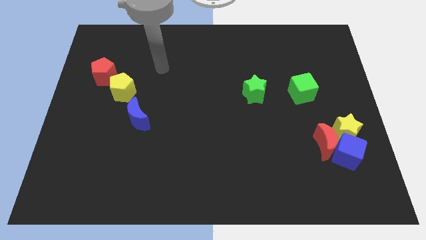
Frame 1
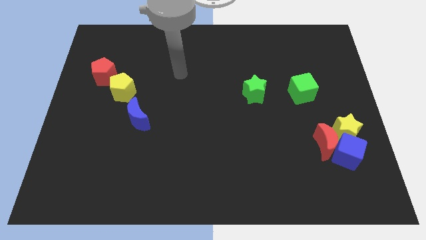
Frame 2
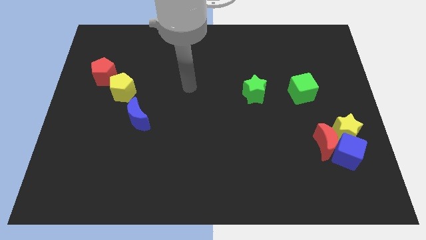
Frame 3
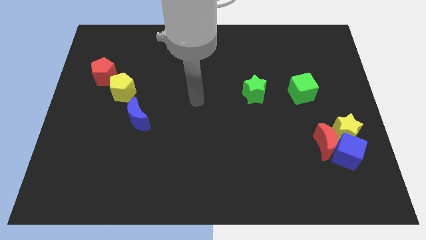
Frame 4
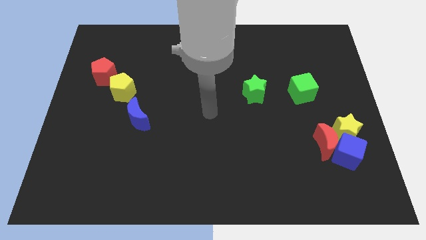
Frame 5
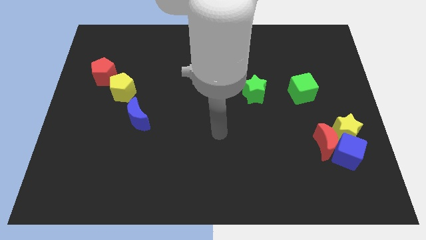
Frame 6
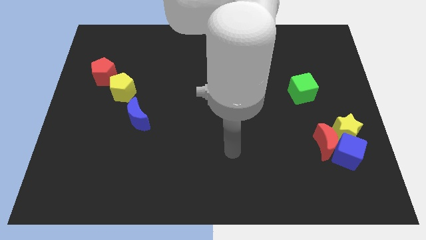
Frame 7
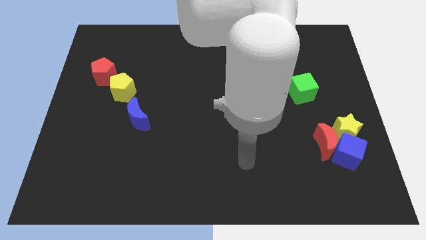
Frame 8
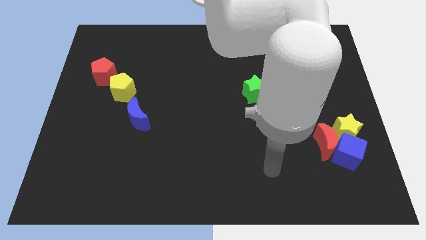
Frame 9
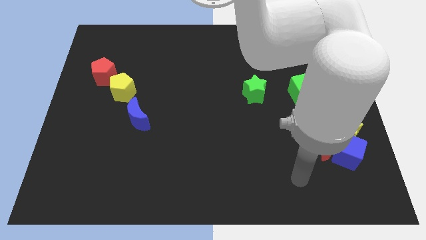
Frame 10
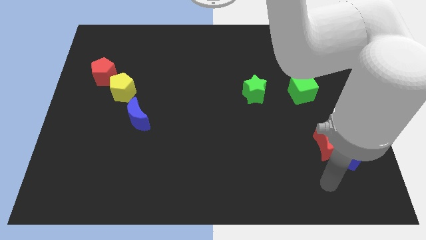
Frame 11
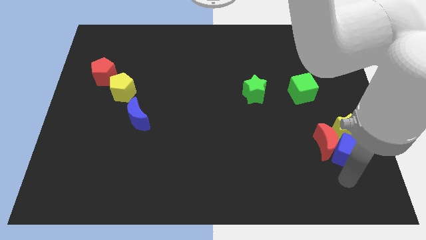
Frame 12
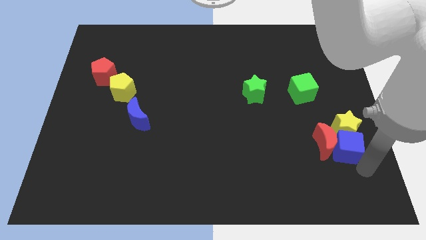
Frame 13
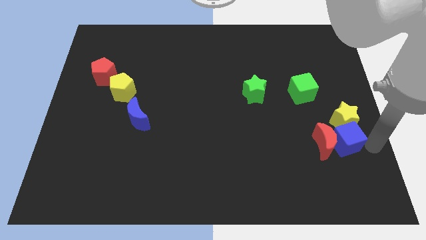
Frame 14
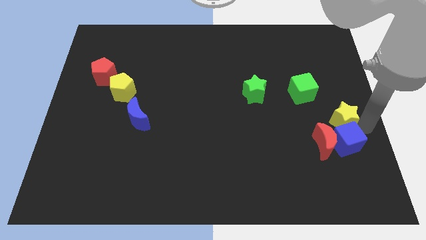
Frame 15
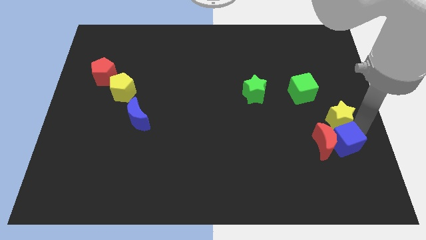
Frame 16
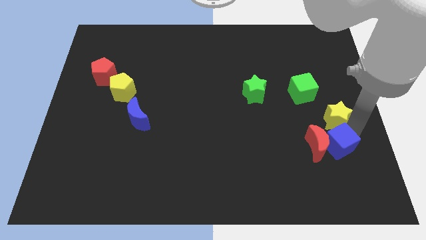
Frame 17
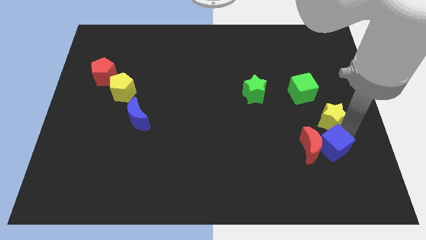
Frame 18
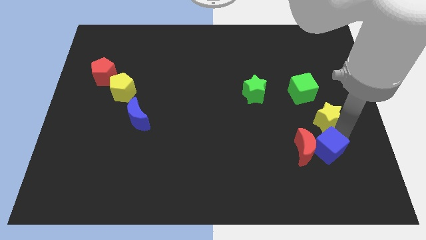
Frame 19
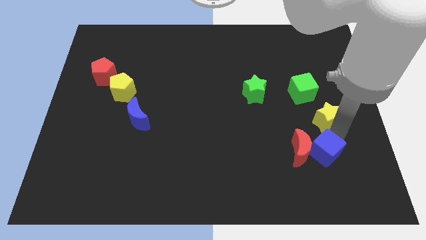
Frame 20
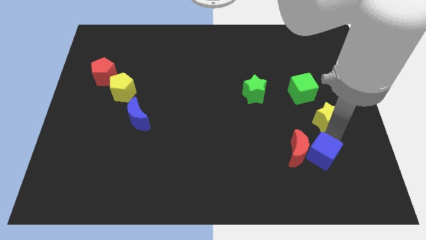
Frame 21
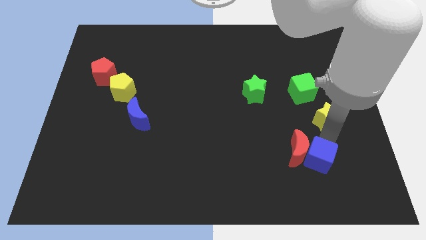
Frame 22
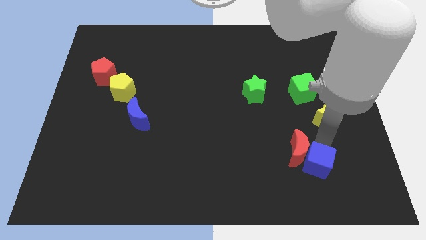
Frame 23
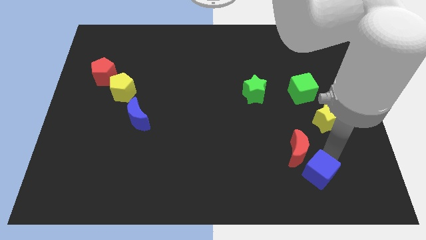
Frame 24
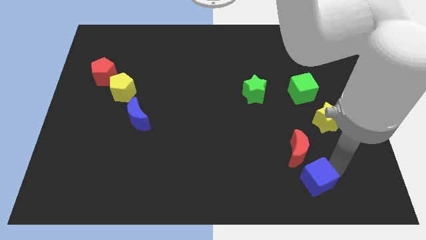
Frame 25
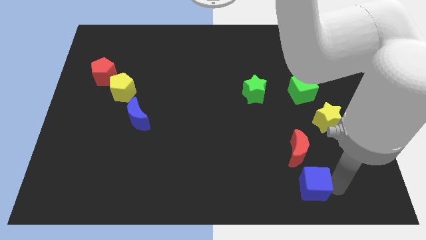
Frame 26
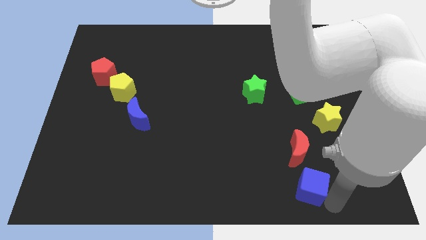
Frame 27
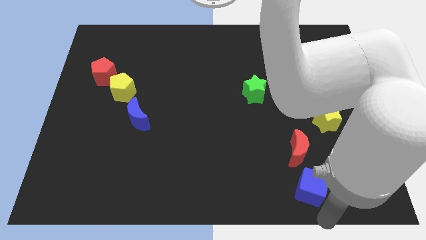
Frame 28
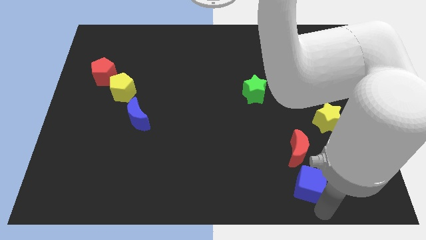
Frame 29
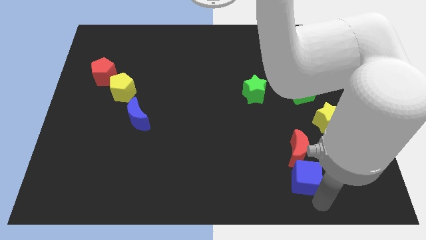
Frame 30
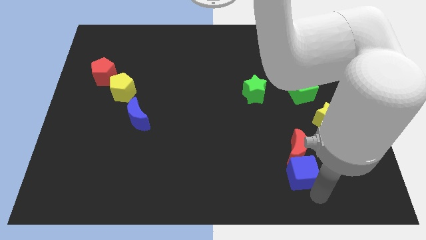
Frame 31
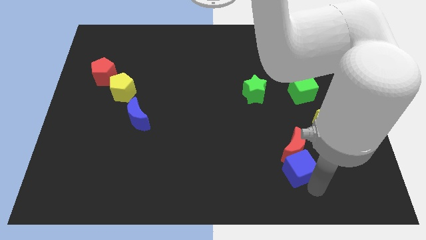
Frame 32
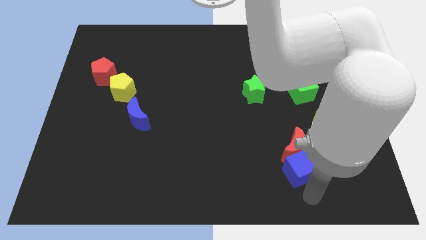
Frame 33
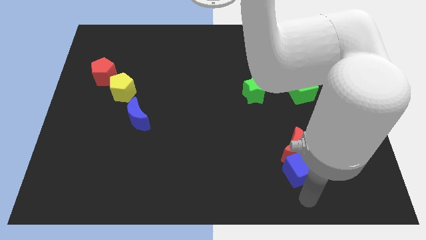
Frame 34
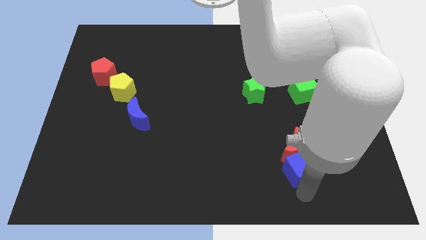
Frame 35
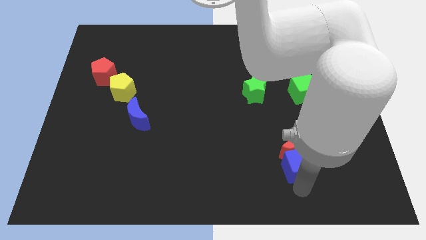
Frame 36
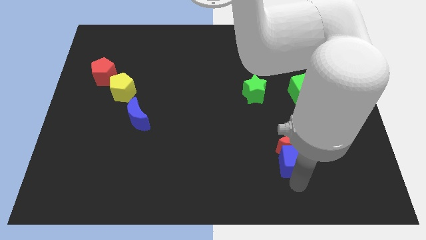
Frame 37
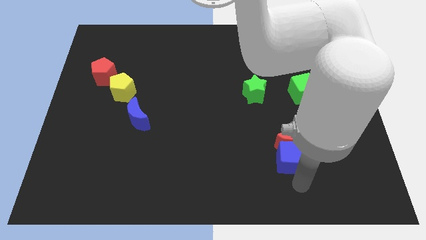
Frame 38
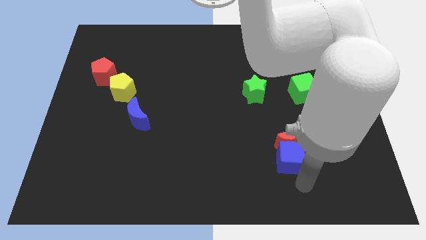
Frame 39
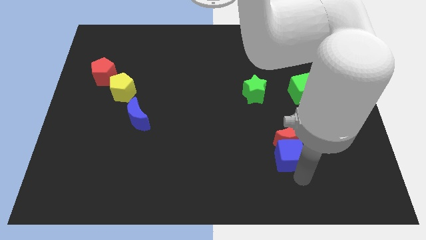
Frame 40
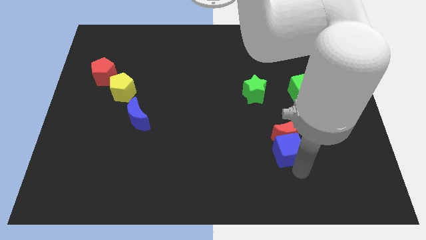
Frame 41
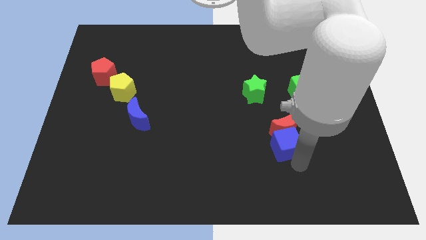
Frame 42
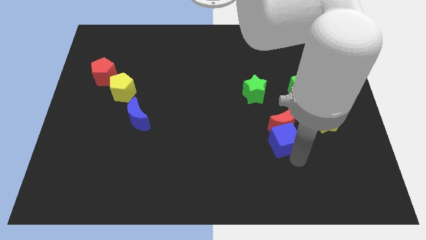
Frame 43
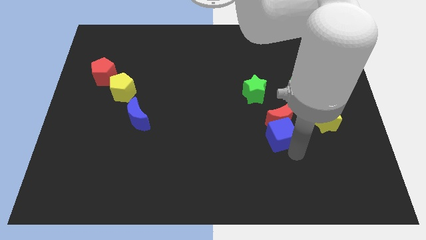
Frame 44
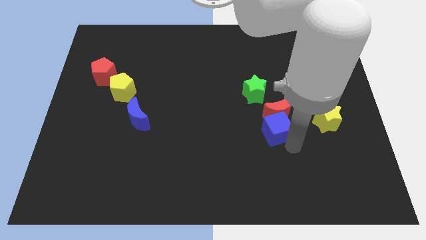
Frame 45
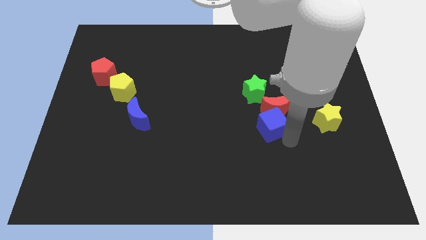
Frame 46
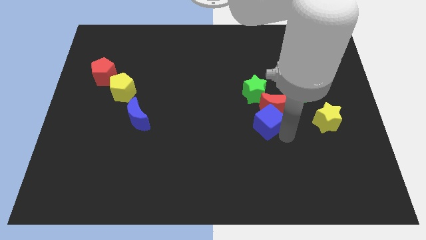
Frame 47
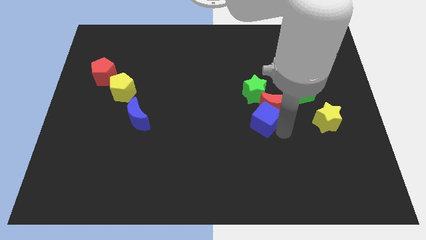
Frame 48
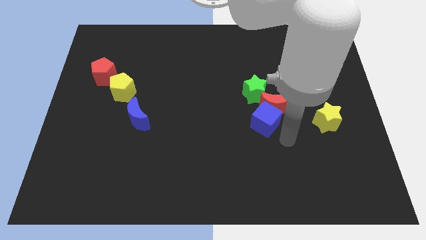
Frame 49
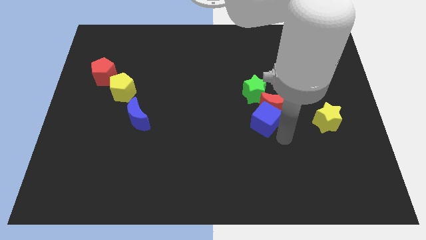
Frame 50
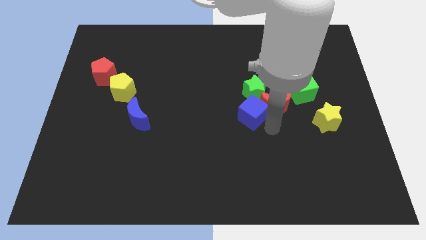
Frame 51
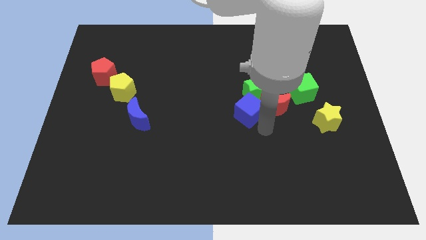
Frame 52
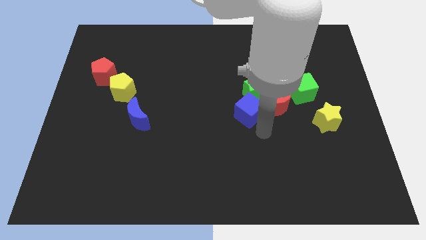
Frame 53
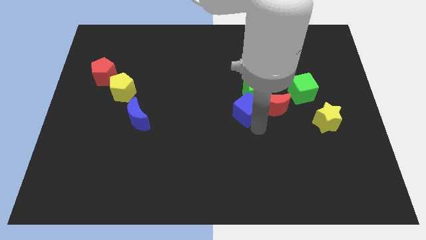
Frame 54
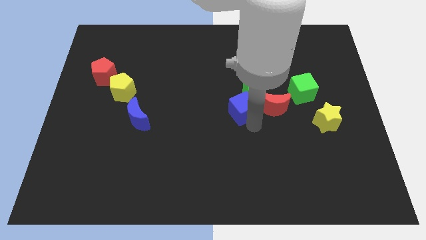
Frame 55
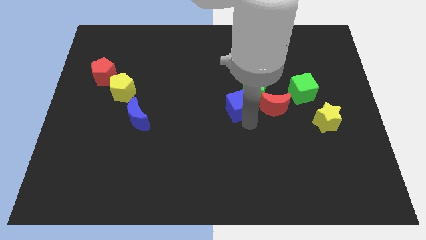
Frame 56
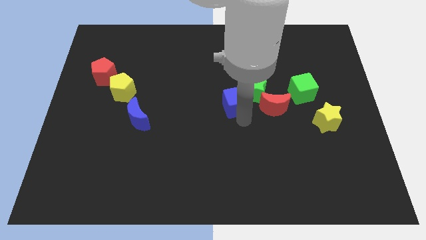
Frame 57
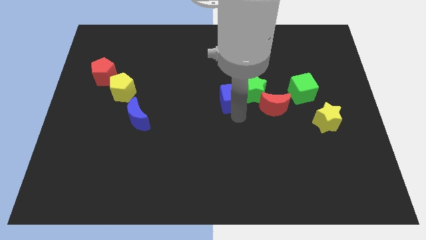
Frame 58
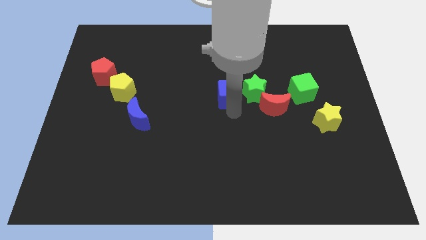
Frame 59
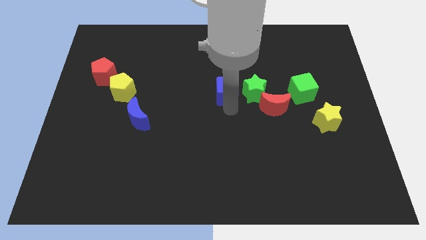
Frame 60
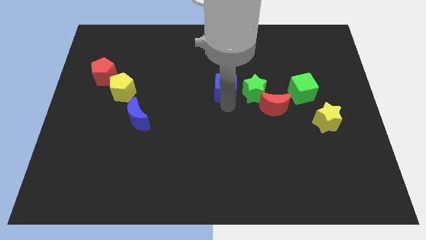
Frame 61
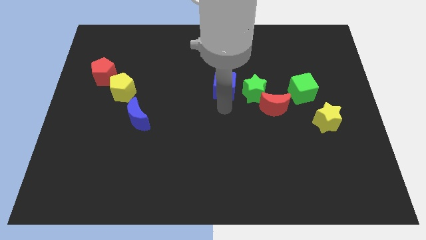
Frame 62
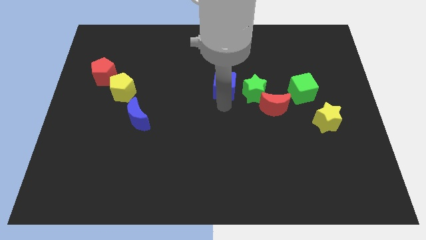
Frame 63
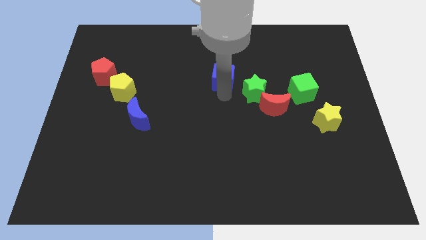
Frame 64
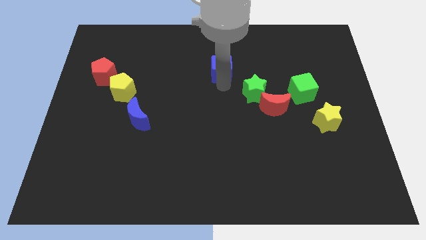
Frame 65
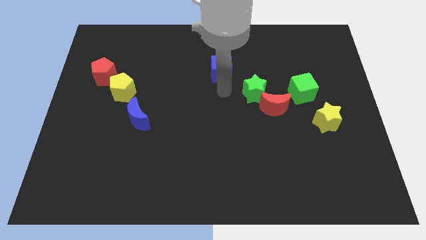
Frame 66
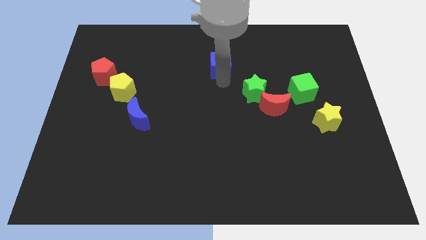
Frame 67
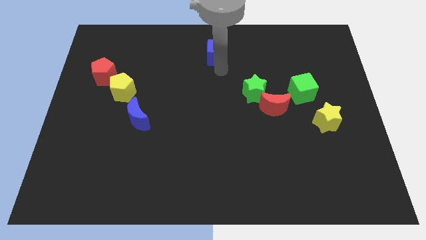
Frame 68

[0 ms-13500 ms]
slide the blue cube to the top

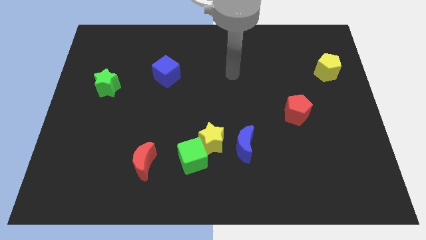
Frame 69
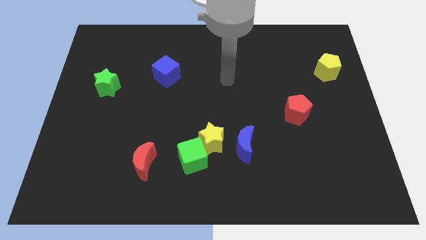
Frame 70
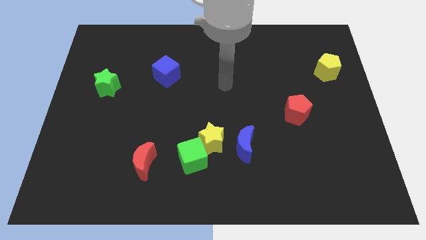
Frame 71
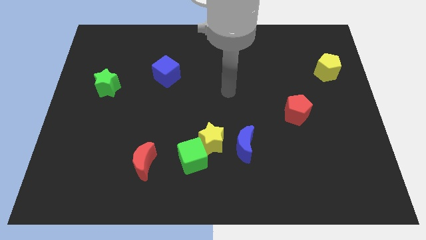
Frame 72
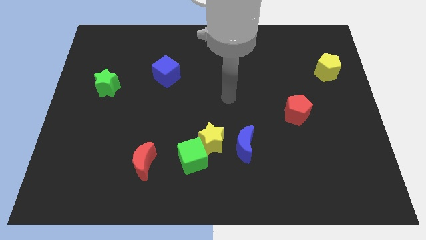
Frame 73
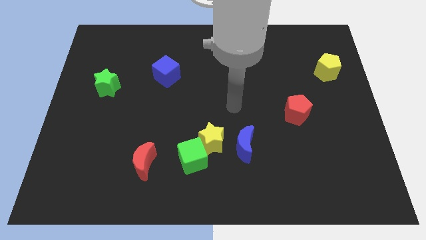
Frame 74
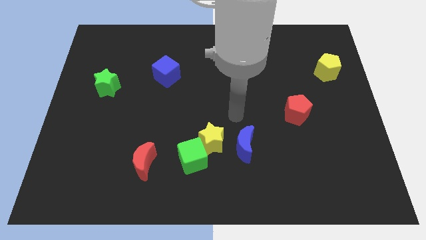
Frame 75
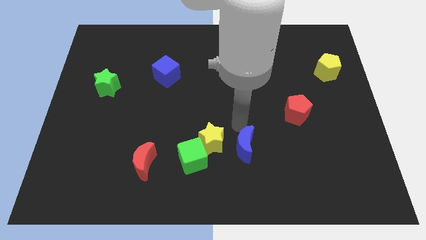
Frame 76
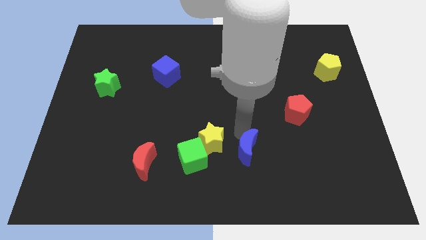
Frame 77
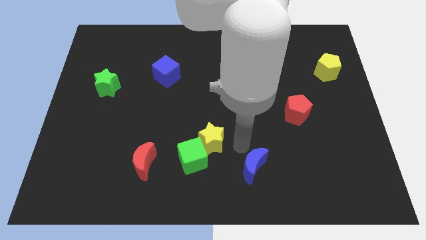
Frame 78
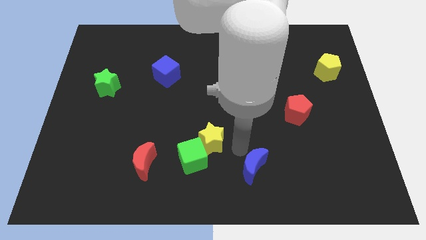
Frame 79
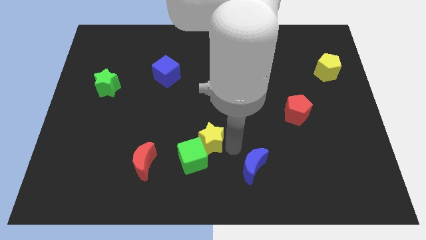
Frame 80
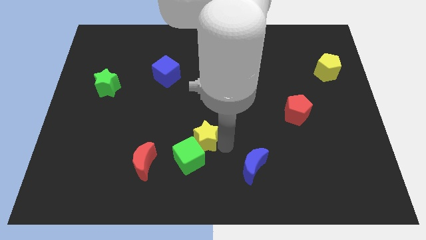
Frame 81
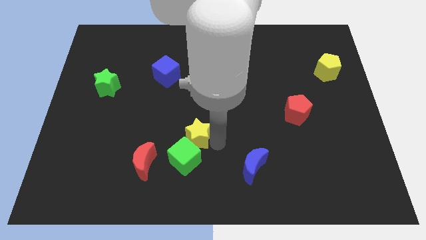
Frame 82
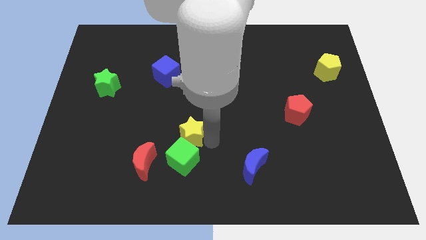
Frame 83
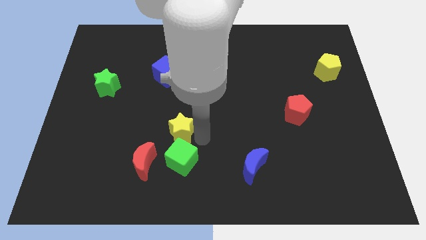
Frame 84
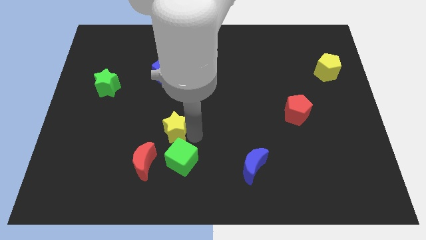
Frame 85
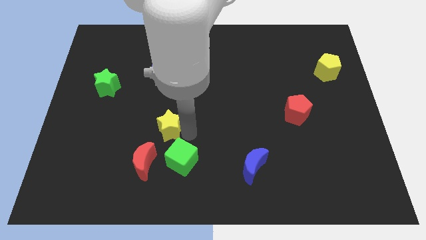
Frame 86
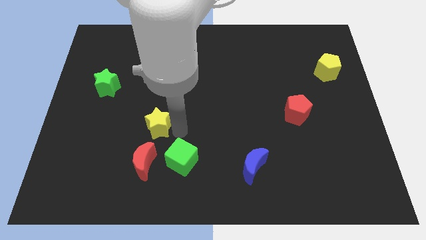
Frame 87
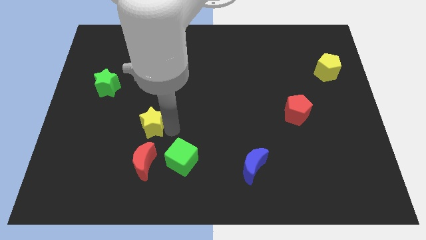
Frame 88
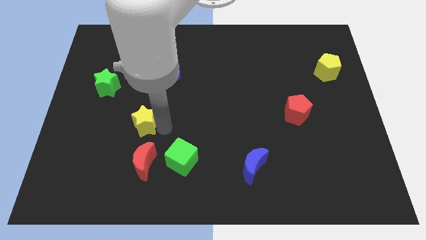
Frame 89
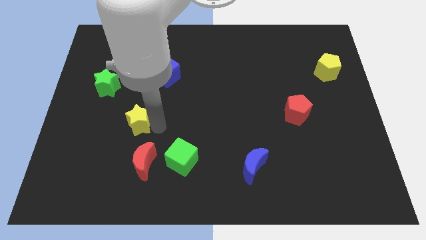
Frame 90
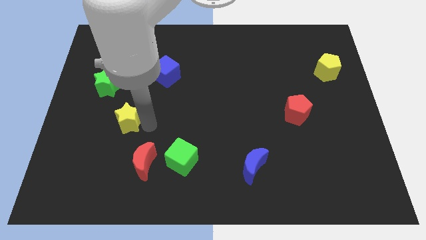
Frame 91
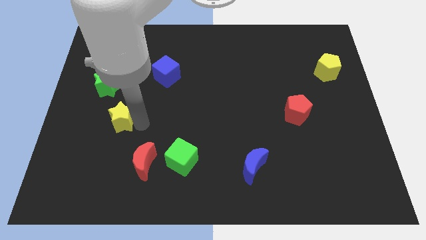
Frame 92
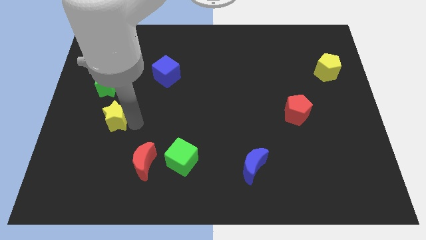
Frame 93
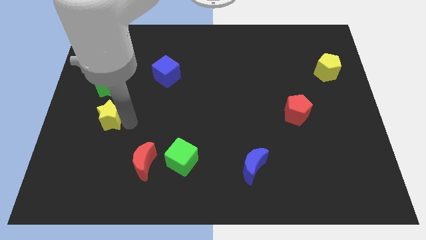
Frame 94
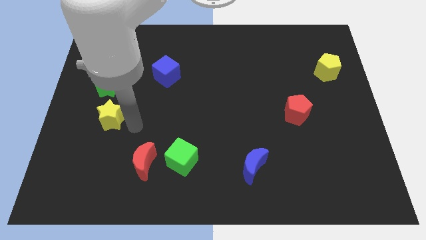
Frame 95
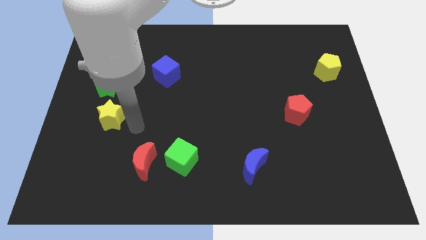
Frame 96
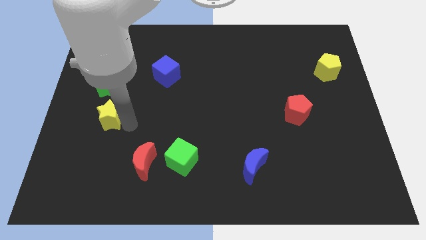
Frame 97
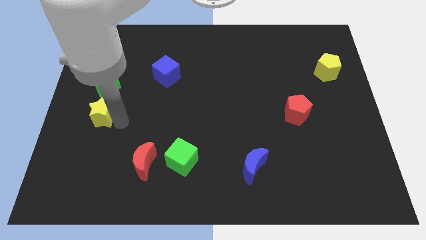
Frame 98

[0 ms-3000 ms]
push the yellow star to the center left
